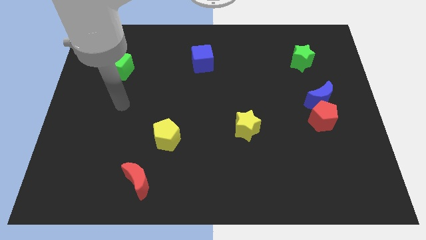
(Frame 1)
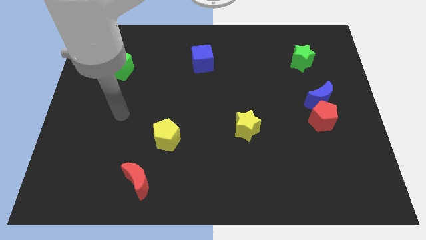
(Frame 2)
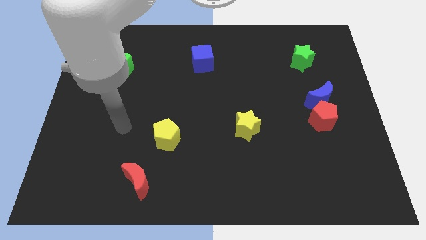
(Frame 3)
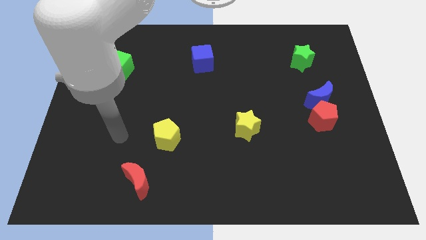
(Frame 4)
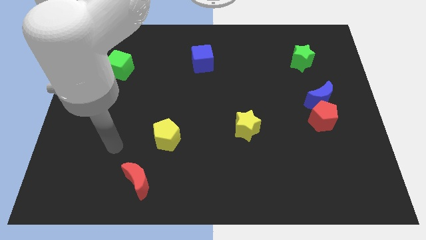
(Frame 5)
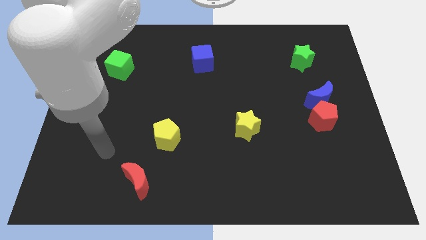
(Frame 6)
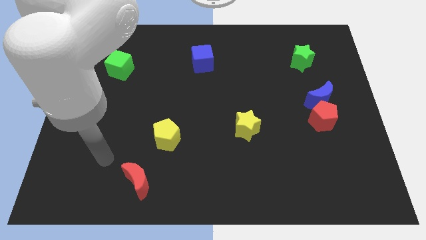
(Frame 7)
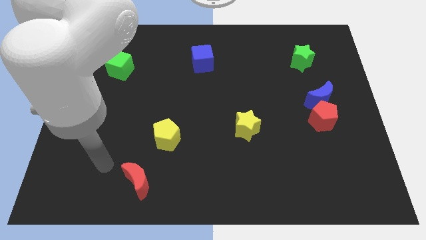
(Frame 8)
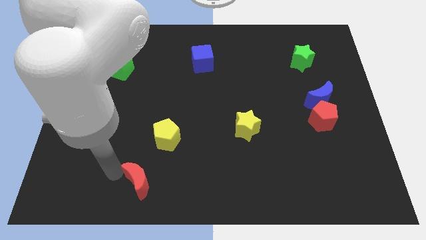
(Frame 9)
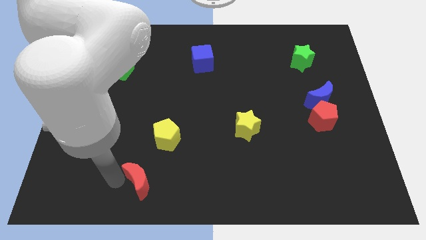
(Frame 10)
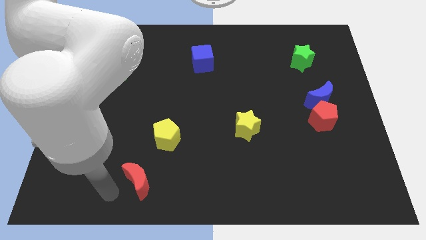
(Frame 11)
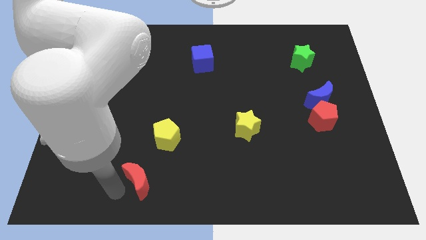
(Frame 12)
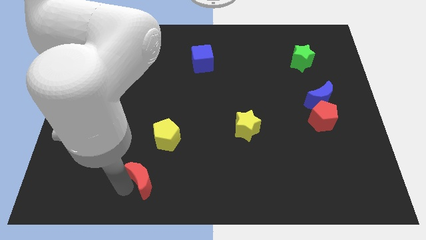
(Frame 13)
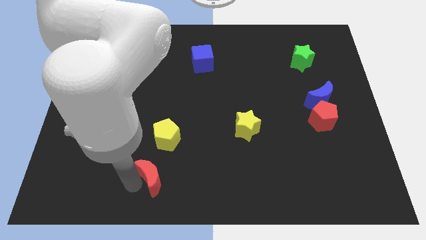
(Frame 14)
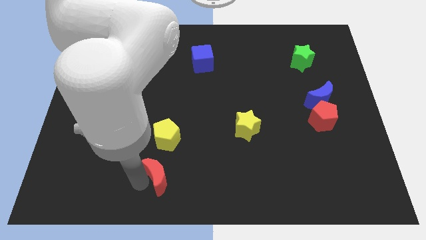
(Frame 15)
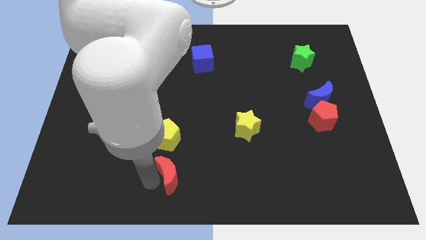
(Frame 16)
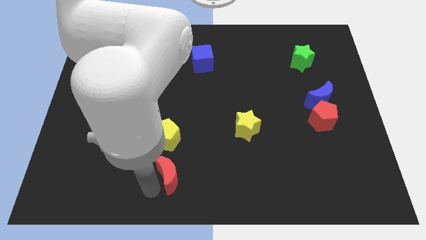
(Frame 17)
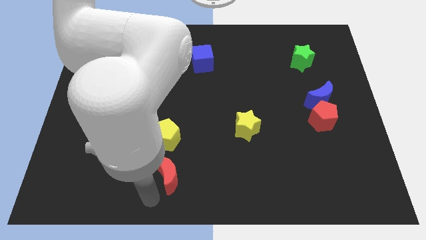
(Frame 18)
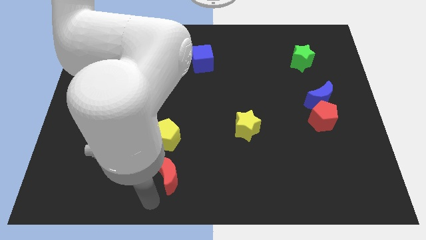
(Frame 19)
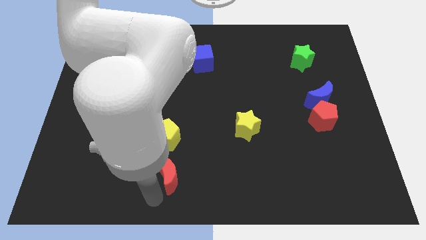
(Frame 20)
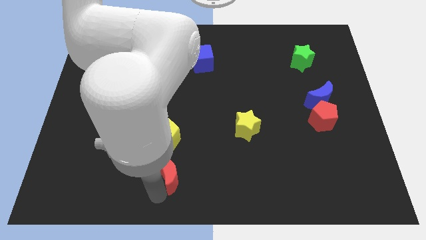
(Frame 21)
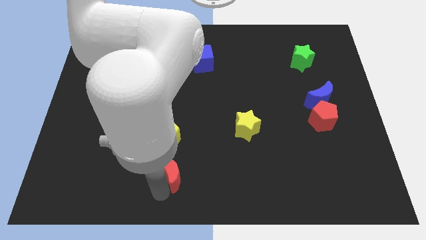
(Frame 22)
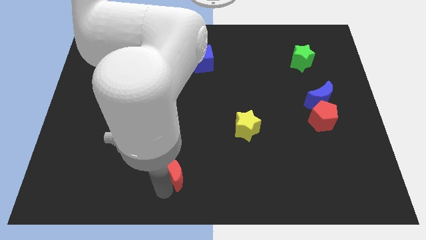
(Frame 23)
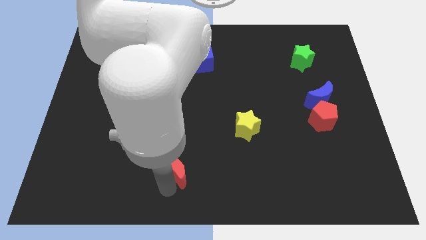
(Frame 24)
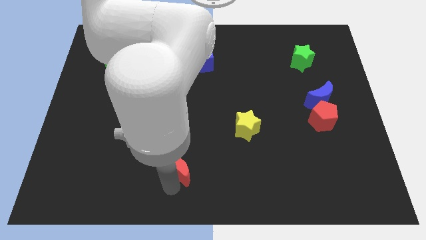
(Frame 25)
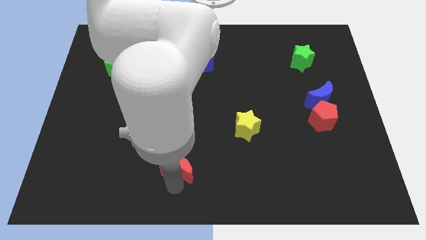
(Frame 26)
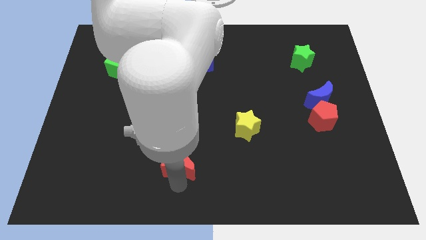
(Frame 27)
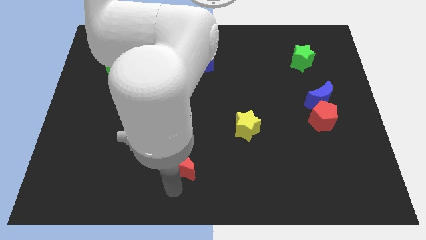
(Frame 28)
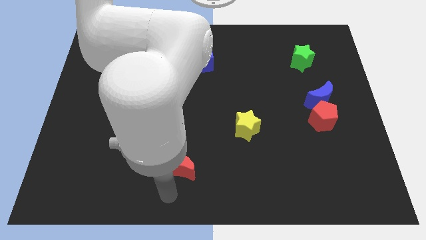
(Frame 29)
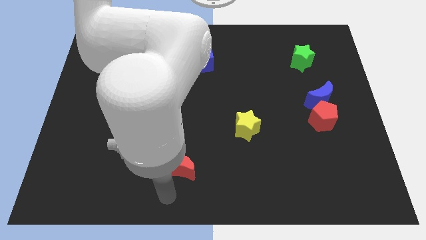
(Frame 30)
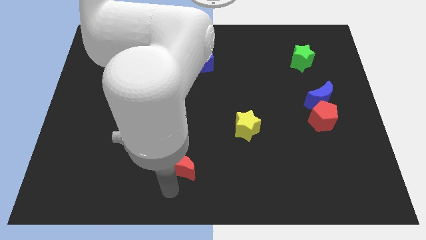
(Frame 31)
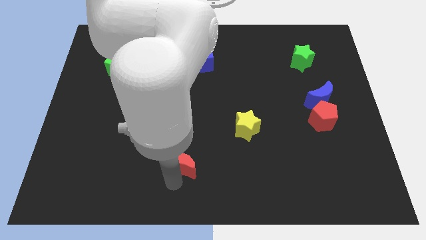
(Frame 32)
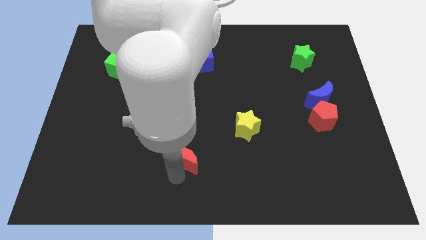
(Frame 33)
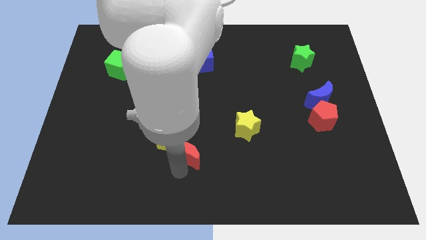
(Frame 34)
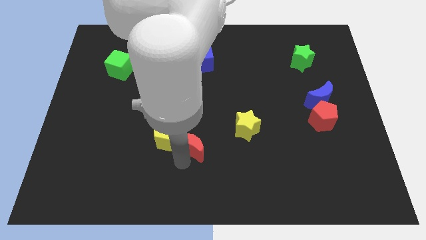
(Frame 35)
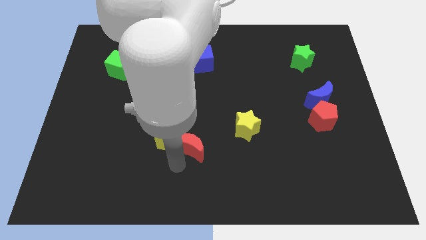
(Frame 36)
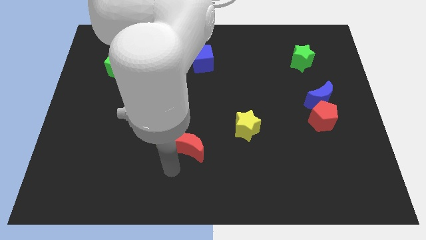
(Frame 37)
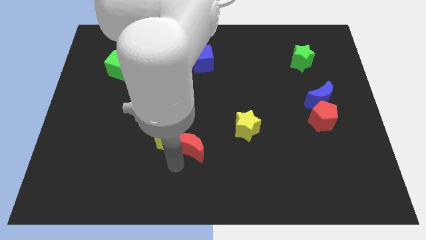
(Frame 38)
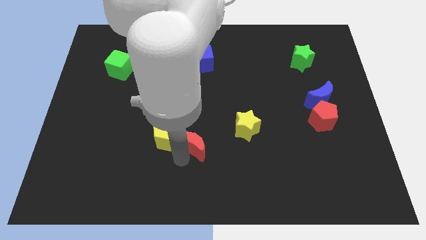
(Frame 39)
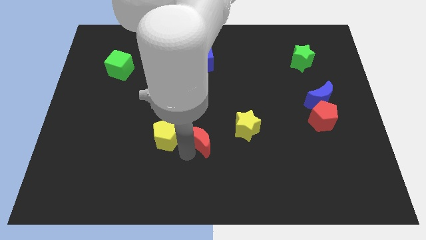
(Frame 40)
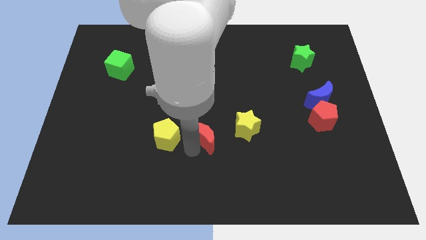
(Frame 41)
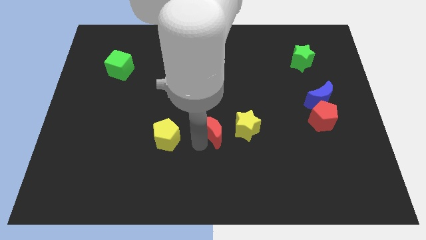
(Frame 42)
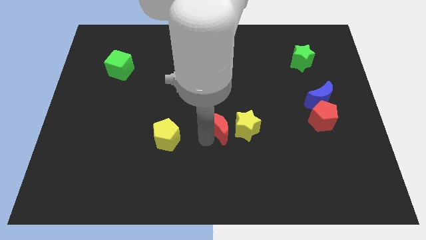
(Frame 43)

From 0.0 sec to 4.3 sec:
move the red moon up and to the right

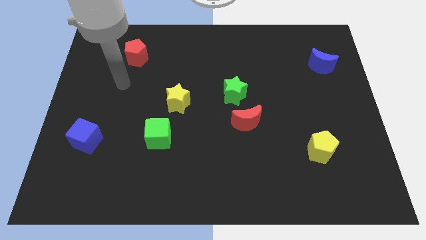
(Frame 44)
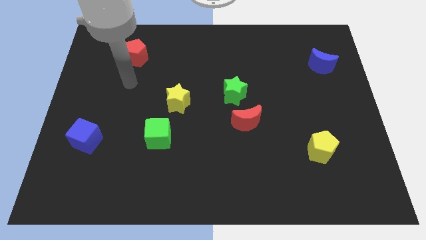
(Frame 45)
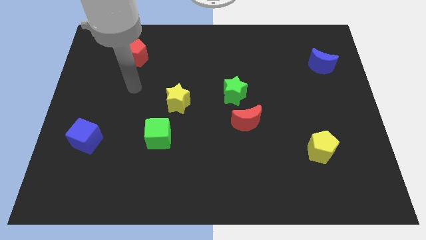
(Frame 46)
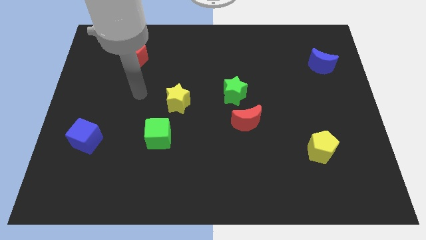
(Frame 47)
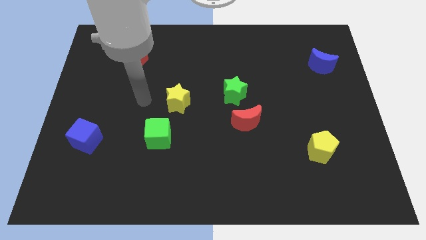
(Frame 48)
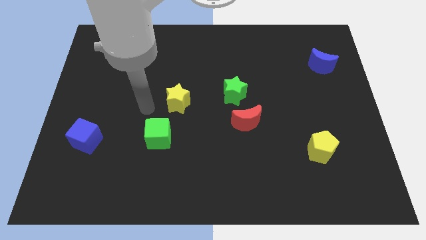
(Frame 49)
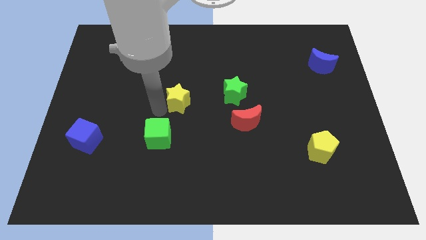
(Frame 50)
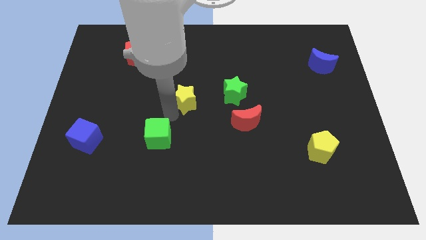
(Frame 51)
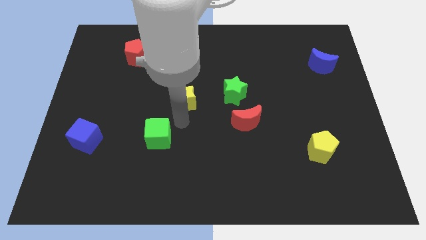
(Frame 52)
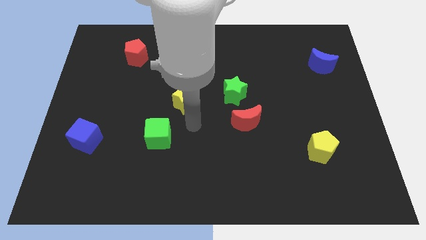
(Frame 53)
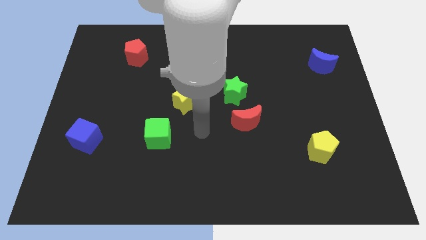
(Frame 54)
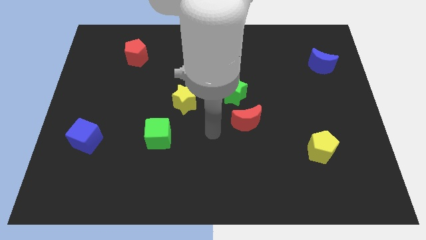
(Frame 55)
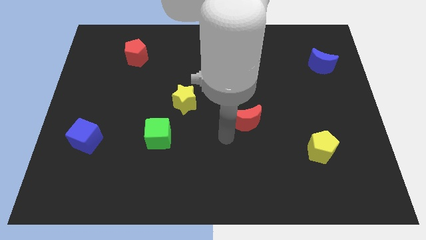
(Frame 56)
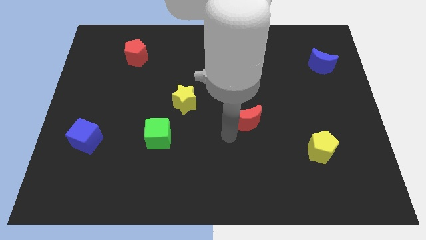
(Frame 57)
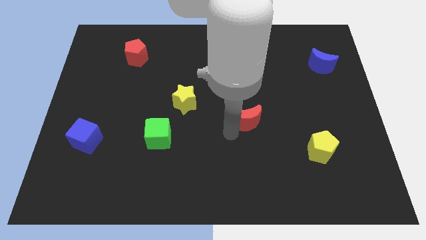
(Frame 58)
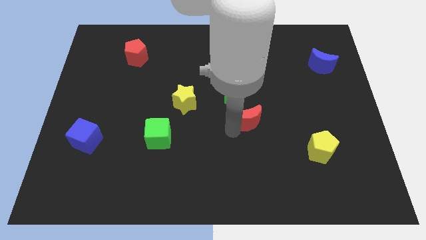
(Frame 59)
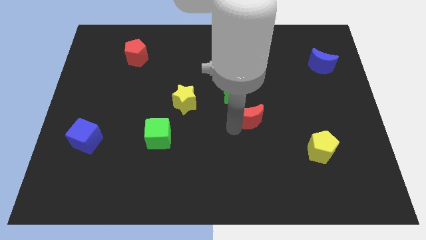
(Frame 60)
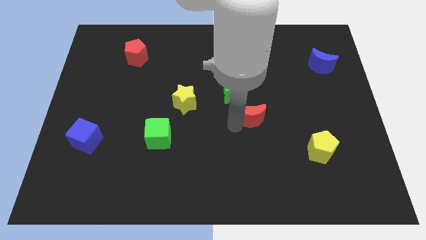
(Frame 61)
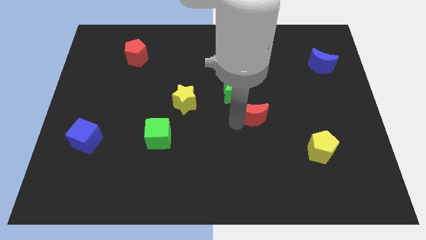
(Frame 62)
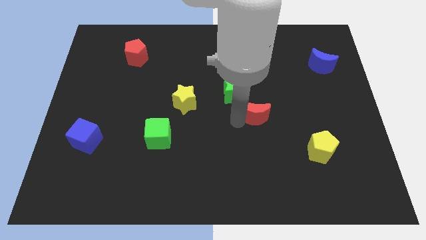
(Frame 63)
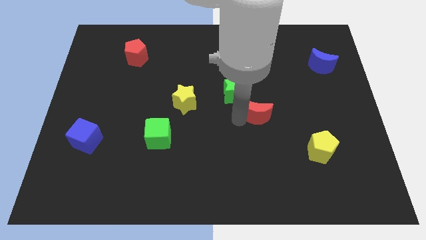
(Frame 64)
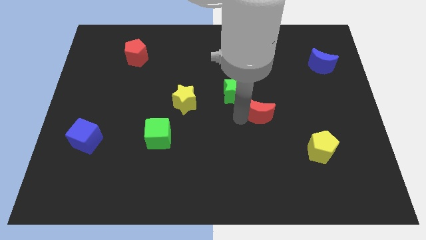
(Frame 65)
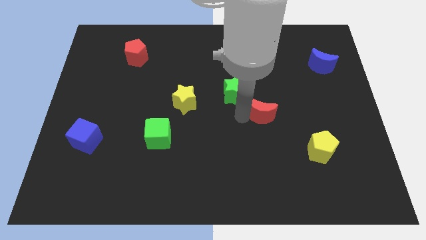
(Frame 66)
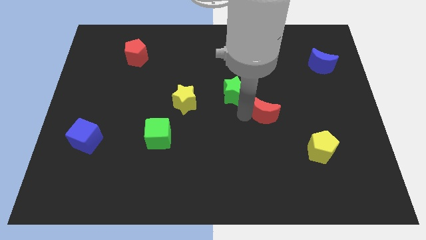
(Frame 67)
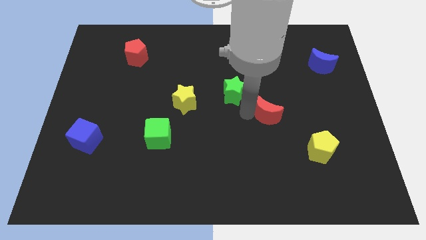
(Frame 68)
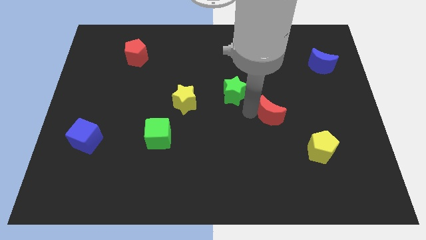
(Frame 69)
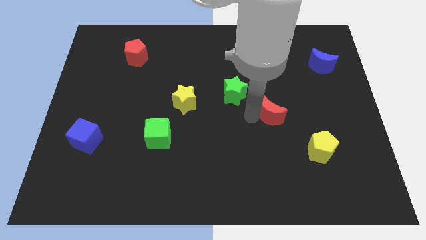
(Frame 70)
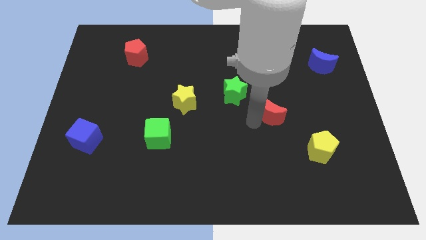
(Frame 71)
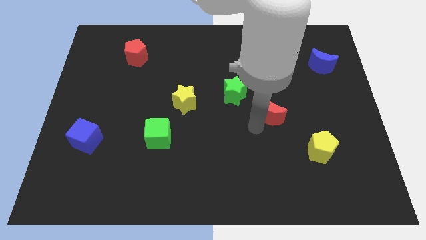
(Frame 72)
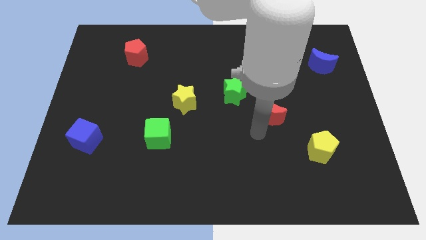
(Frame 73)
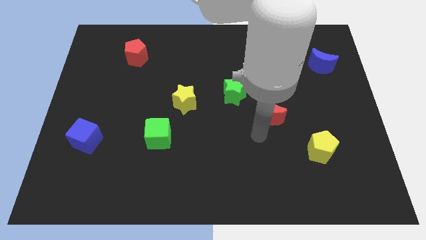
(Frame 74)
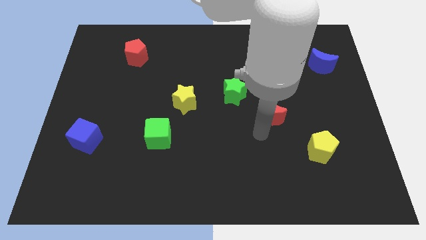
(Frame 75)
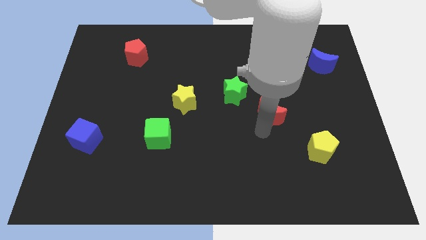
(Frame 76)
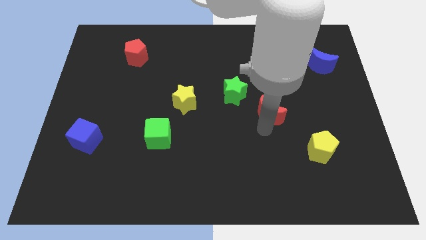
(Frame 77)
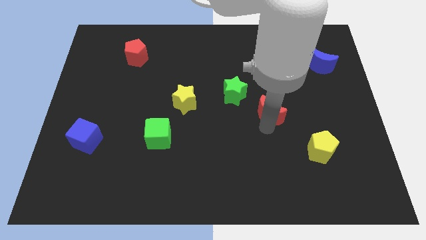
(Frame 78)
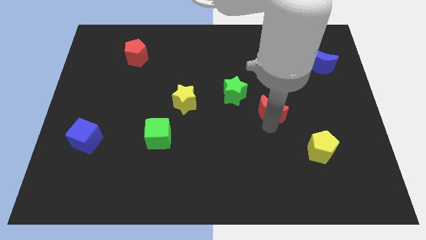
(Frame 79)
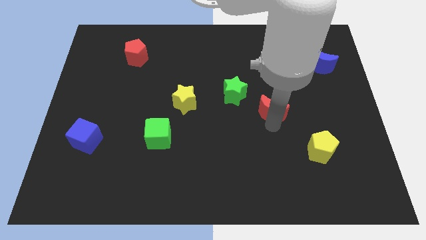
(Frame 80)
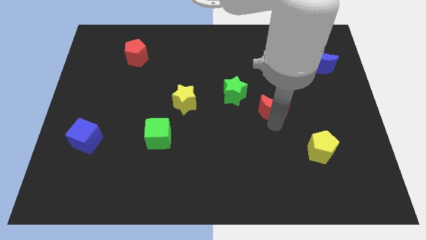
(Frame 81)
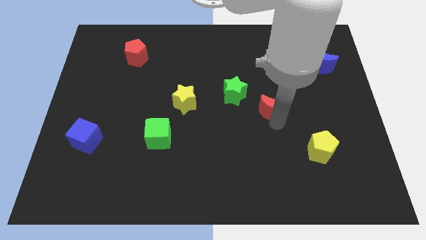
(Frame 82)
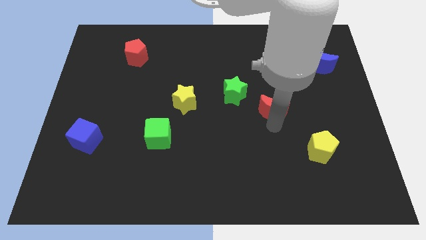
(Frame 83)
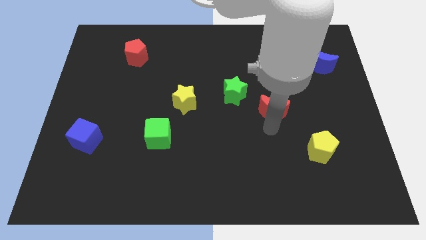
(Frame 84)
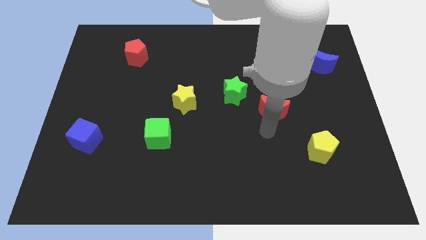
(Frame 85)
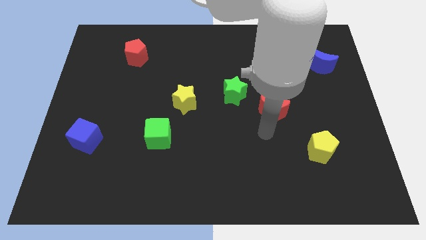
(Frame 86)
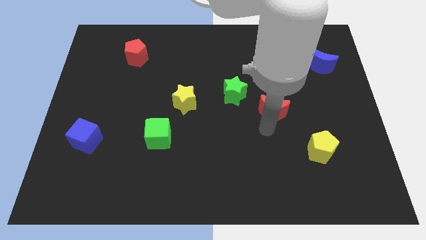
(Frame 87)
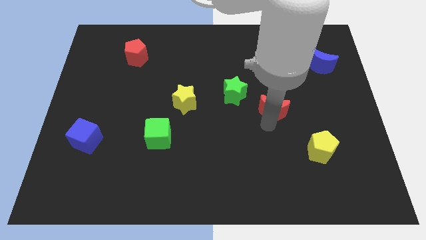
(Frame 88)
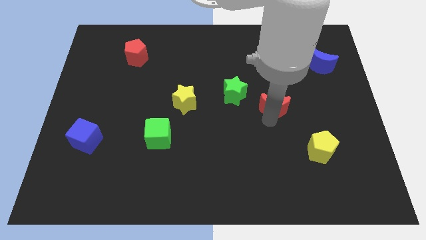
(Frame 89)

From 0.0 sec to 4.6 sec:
push the red moon a little bit upwards and then right
